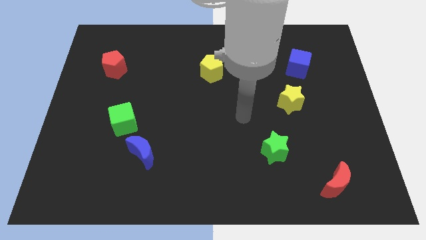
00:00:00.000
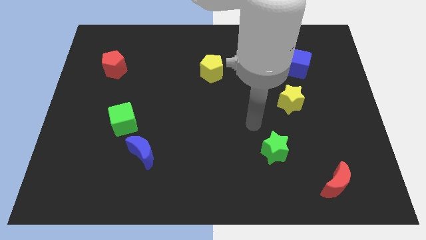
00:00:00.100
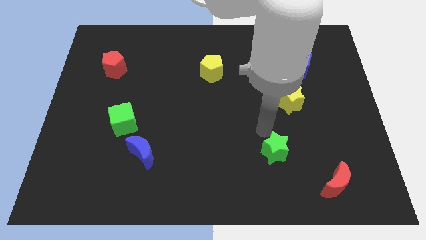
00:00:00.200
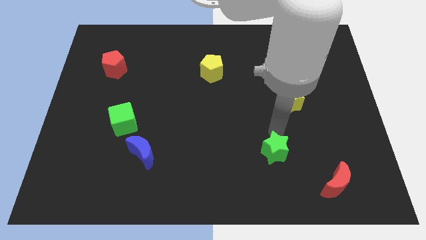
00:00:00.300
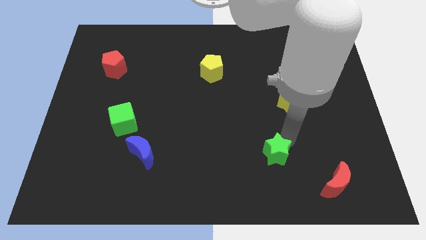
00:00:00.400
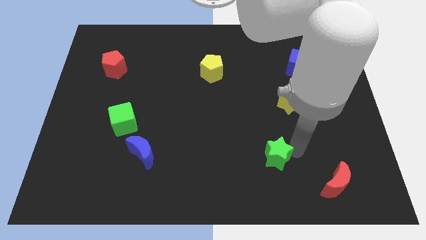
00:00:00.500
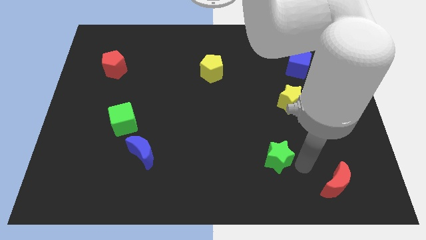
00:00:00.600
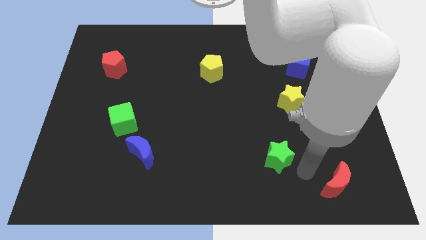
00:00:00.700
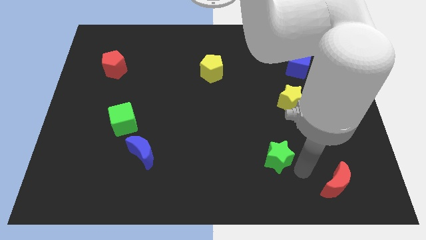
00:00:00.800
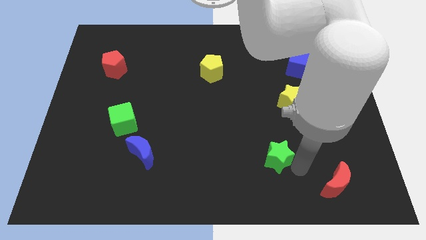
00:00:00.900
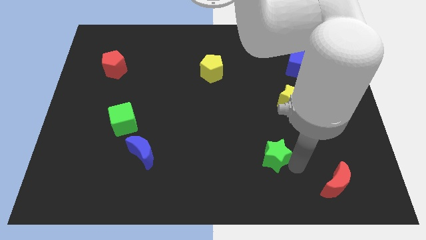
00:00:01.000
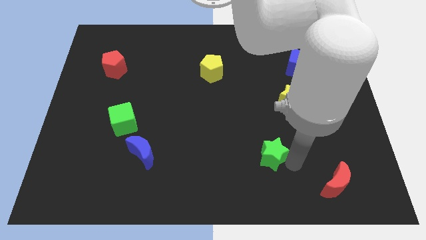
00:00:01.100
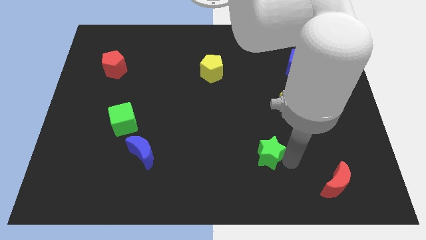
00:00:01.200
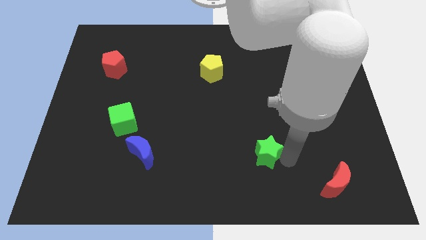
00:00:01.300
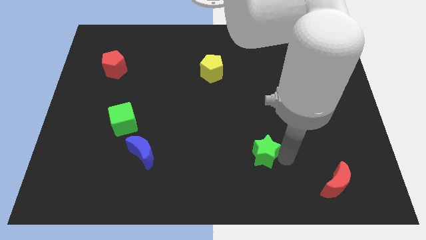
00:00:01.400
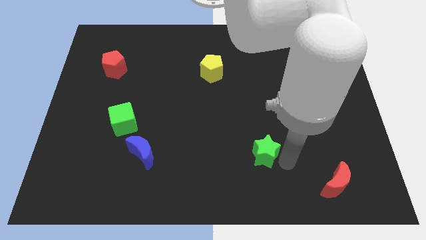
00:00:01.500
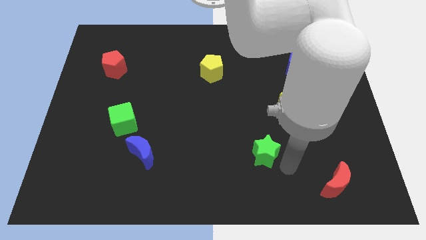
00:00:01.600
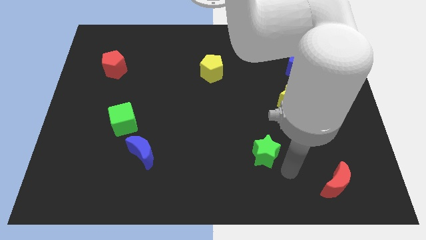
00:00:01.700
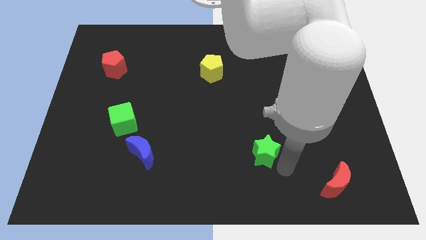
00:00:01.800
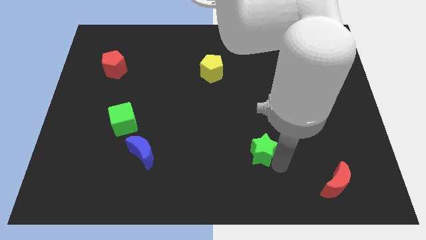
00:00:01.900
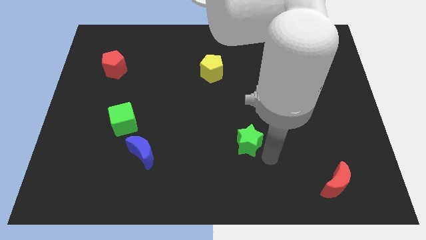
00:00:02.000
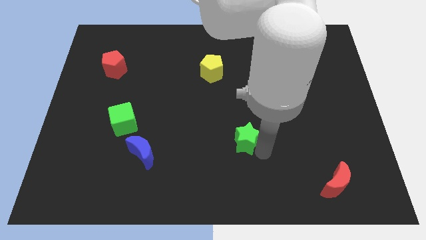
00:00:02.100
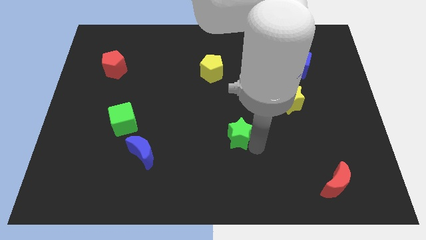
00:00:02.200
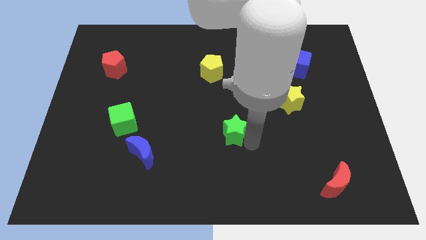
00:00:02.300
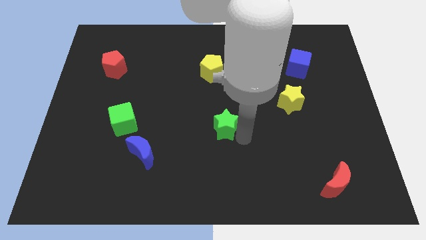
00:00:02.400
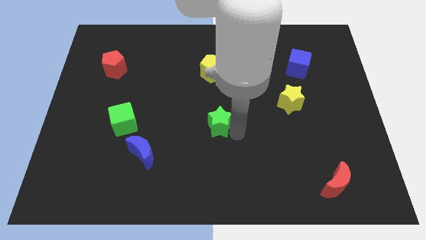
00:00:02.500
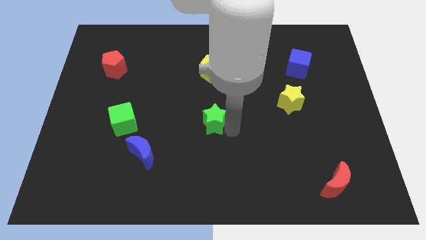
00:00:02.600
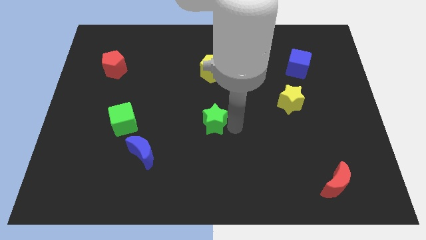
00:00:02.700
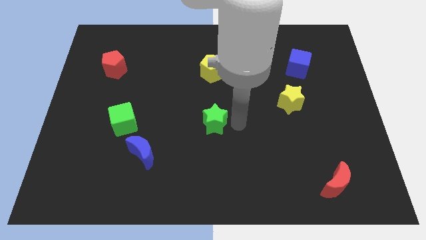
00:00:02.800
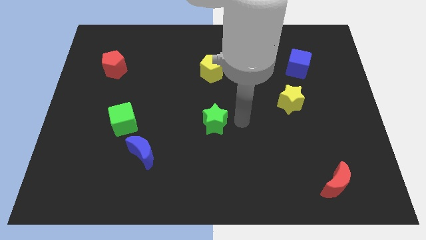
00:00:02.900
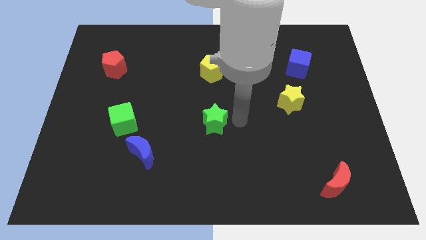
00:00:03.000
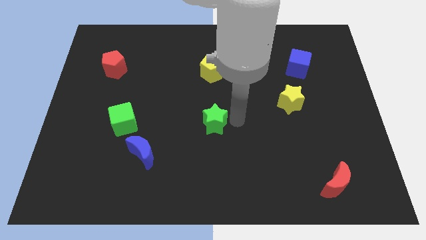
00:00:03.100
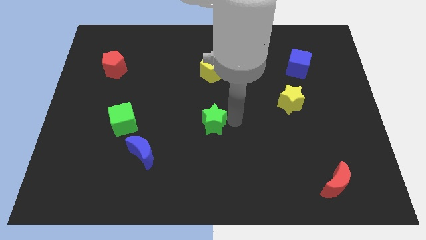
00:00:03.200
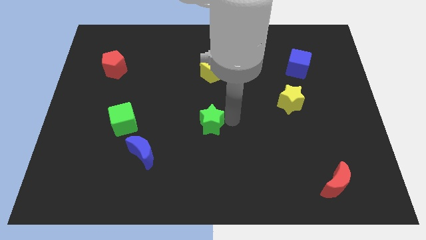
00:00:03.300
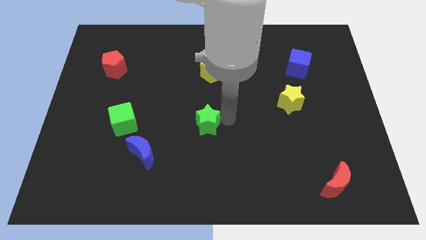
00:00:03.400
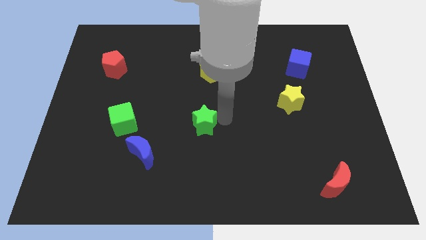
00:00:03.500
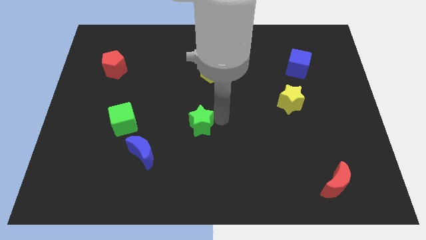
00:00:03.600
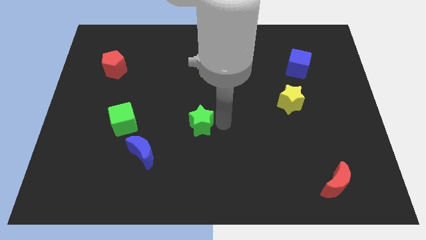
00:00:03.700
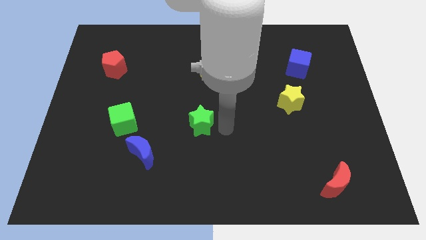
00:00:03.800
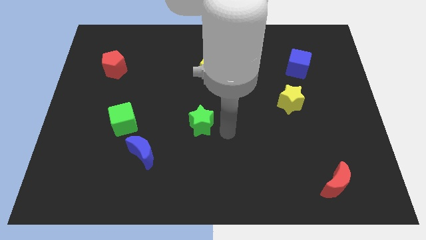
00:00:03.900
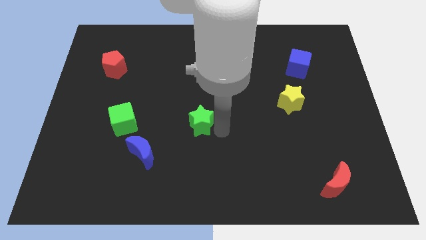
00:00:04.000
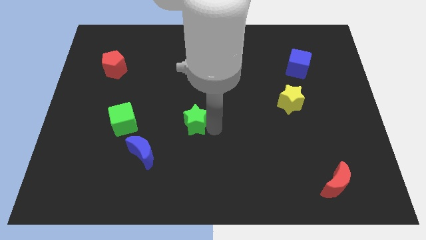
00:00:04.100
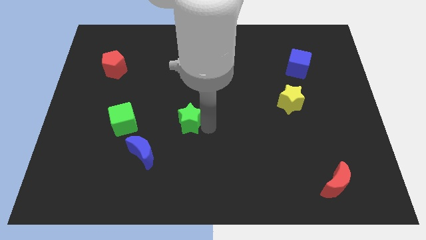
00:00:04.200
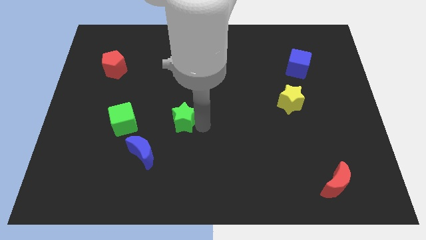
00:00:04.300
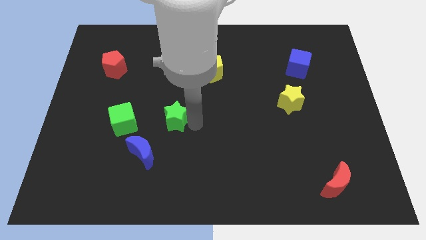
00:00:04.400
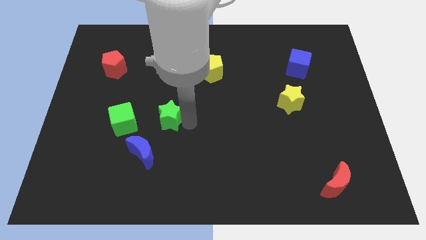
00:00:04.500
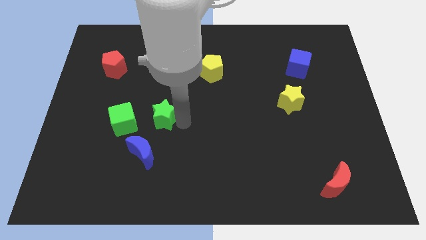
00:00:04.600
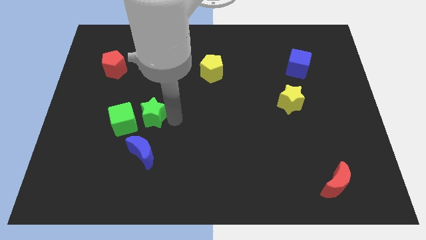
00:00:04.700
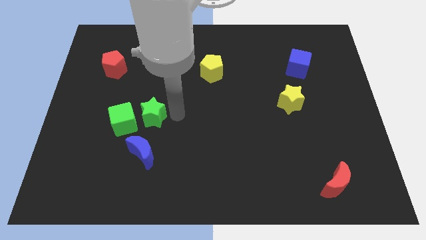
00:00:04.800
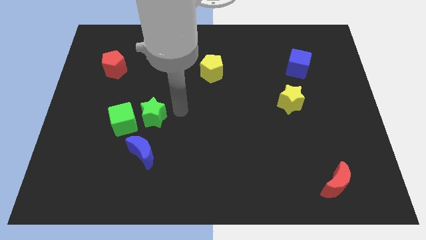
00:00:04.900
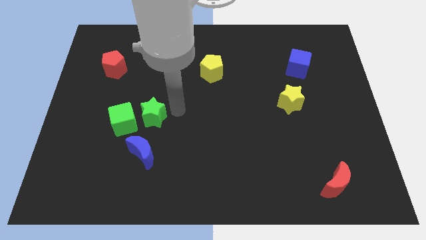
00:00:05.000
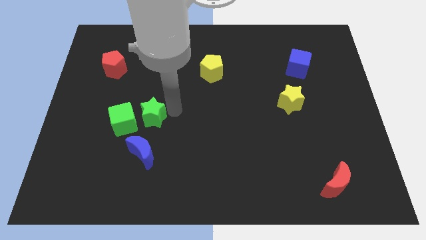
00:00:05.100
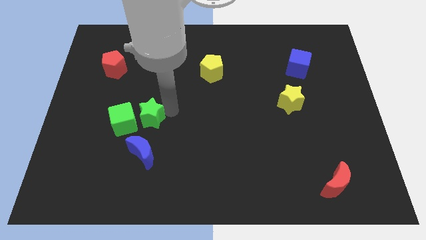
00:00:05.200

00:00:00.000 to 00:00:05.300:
slide the green star close to the green cube

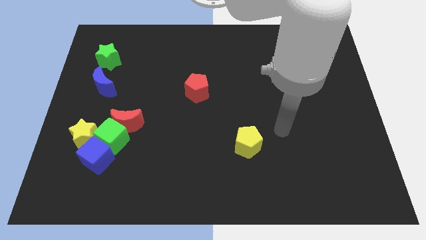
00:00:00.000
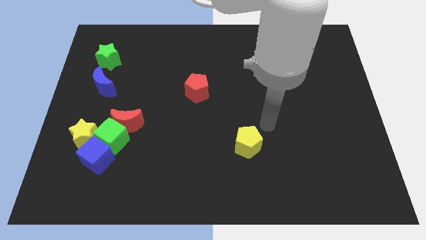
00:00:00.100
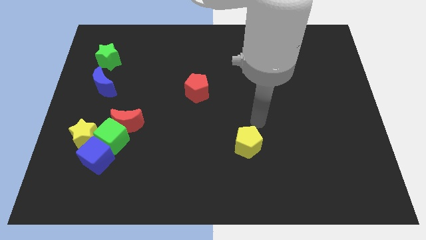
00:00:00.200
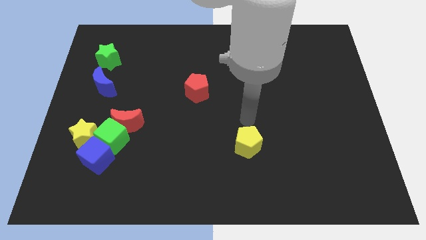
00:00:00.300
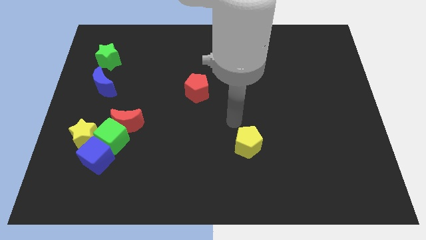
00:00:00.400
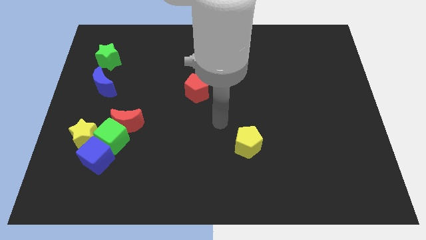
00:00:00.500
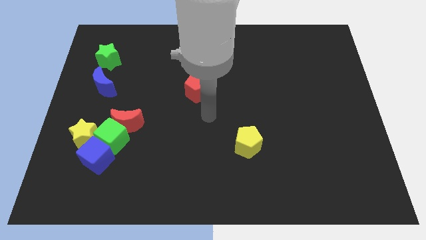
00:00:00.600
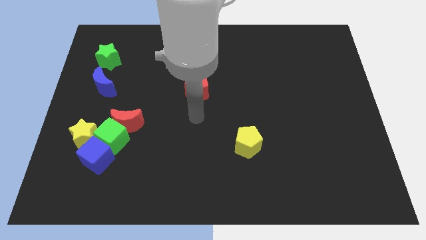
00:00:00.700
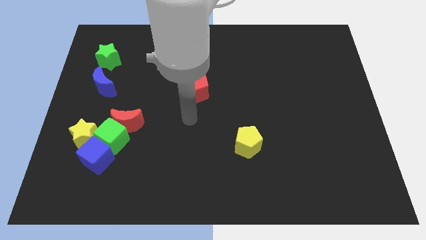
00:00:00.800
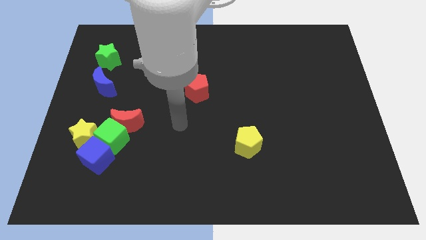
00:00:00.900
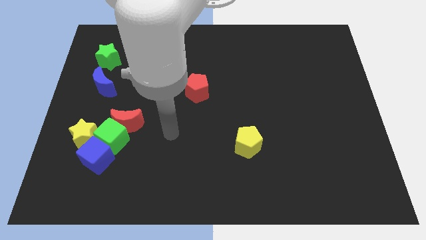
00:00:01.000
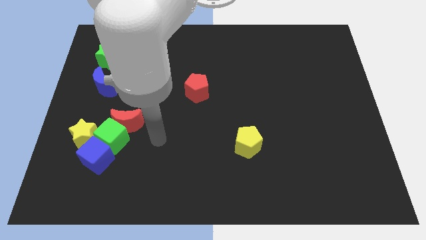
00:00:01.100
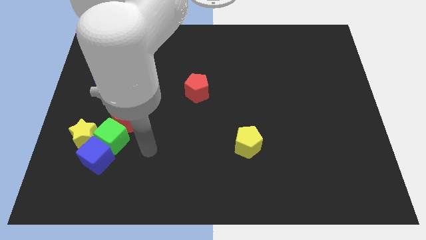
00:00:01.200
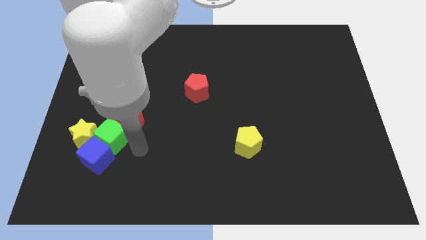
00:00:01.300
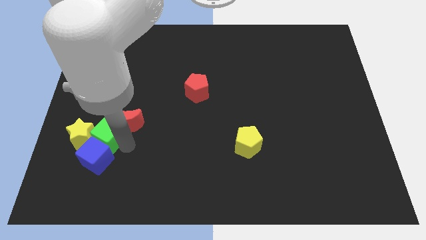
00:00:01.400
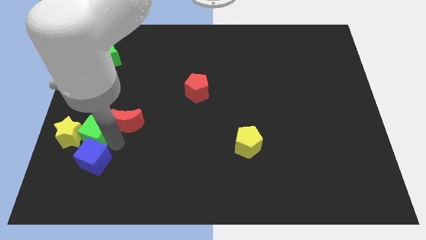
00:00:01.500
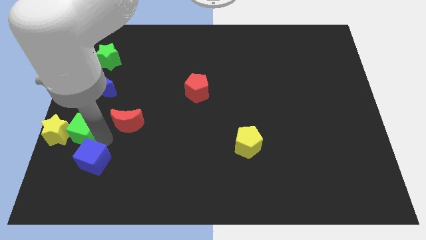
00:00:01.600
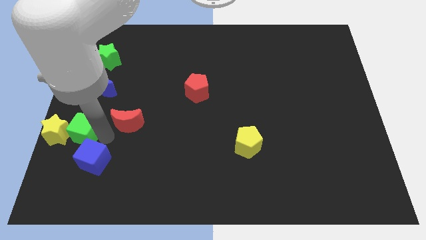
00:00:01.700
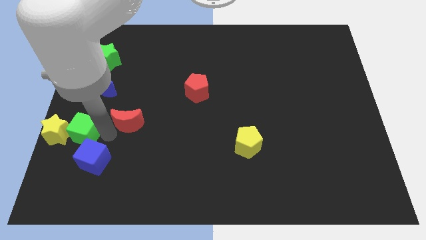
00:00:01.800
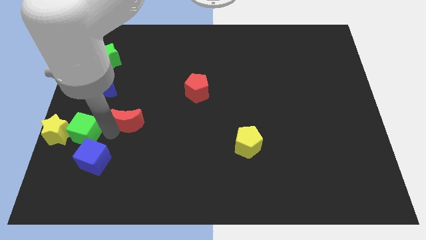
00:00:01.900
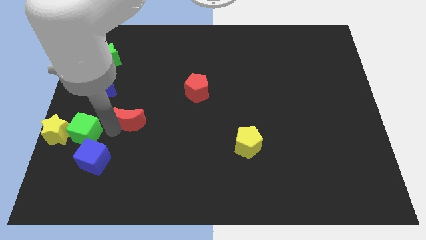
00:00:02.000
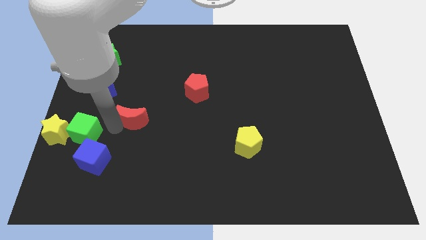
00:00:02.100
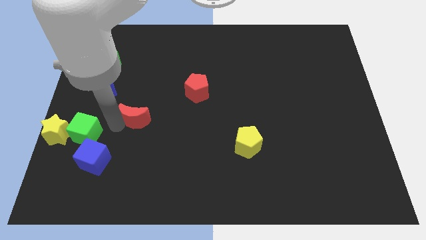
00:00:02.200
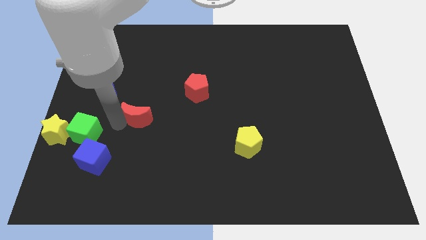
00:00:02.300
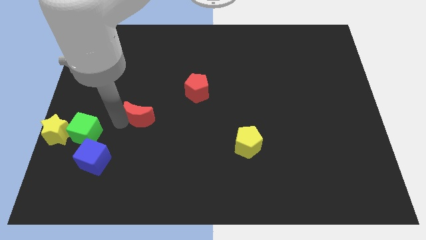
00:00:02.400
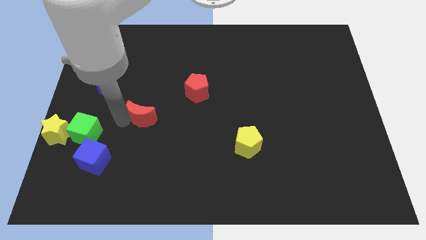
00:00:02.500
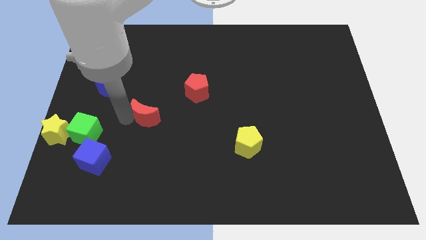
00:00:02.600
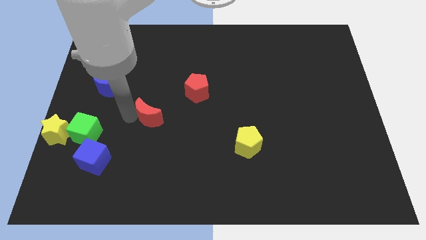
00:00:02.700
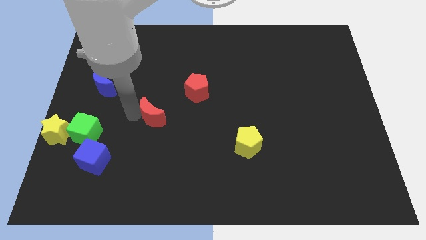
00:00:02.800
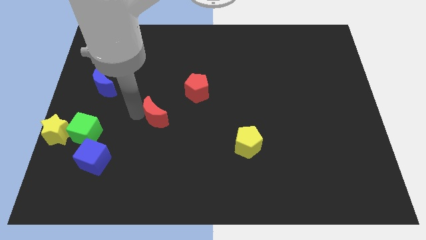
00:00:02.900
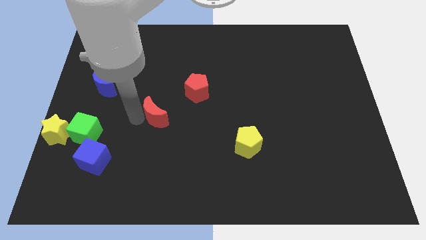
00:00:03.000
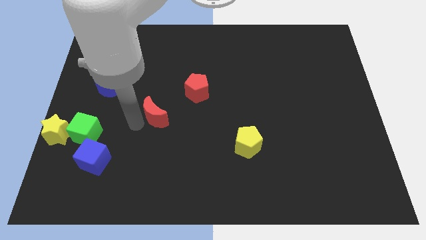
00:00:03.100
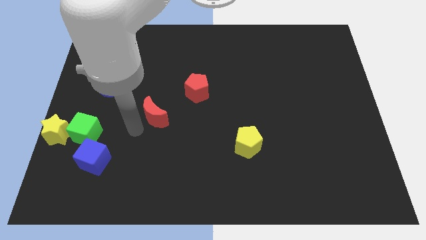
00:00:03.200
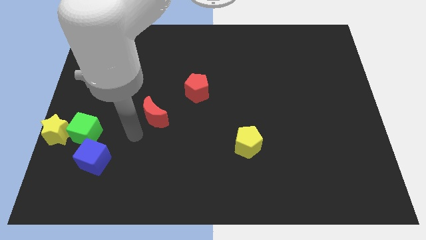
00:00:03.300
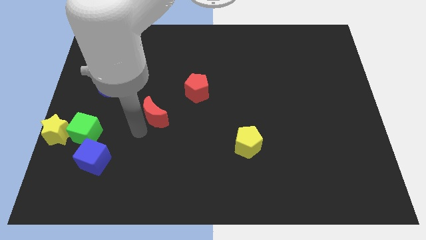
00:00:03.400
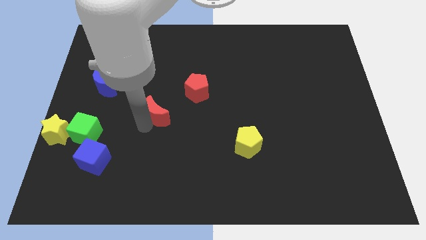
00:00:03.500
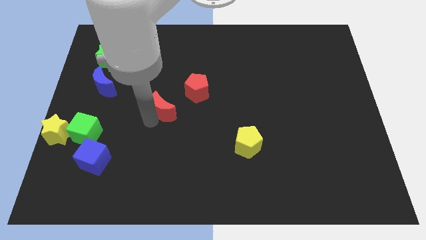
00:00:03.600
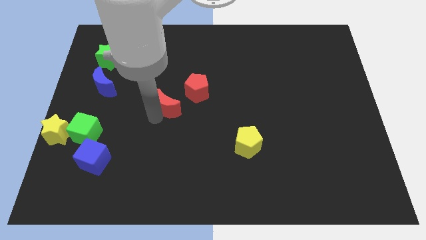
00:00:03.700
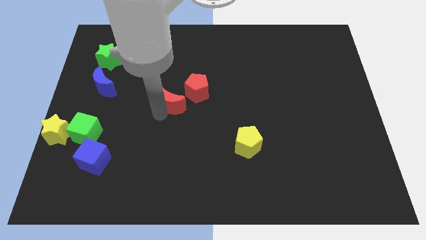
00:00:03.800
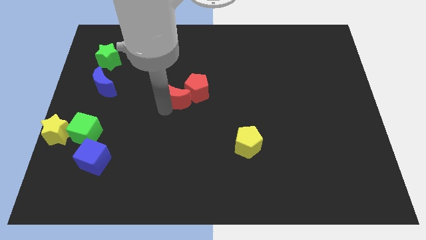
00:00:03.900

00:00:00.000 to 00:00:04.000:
move the red moon to the red pentagon
